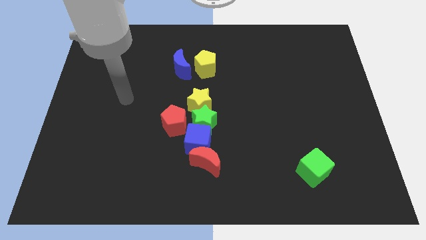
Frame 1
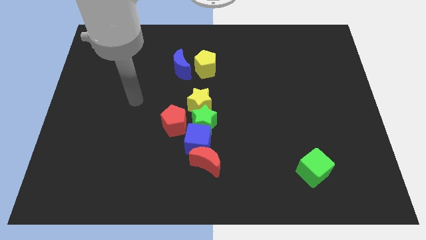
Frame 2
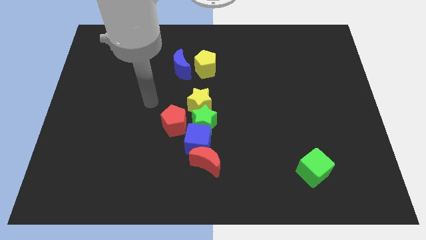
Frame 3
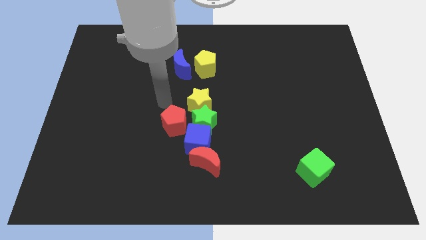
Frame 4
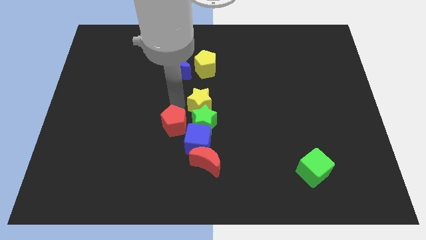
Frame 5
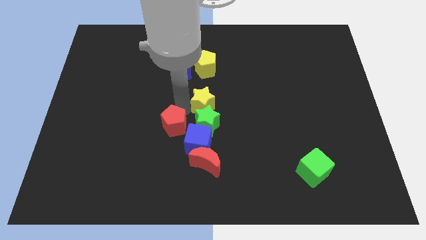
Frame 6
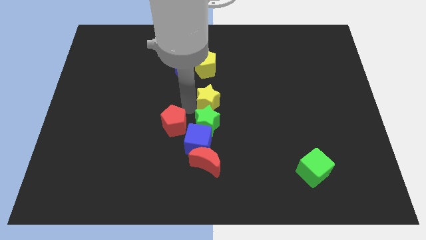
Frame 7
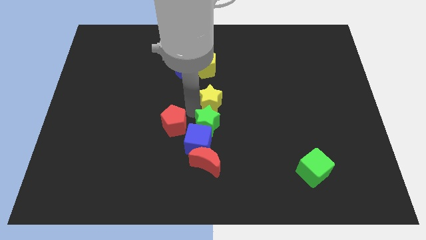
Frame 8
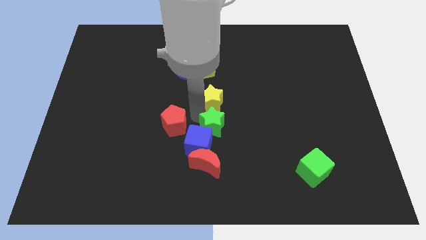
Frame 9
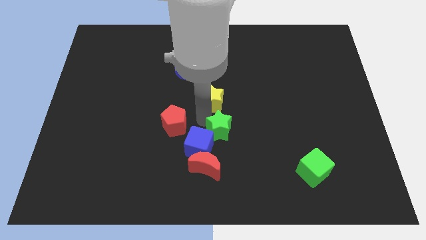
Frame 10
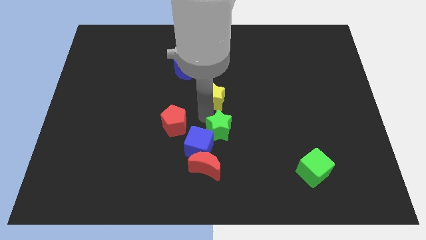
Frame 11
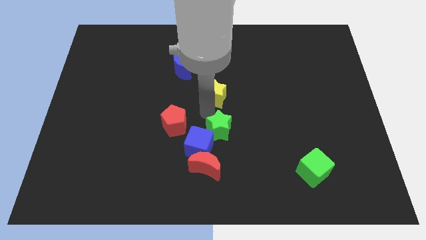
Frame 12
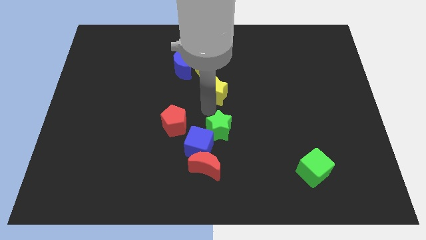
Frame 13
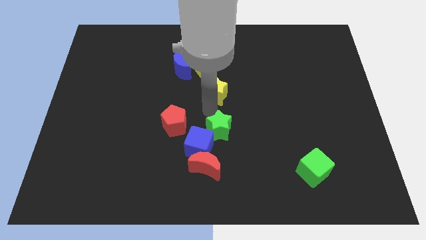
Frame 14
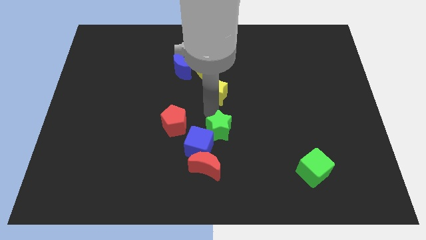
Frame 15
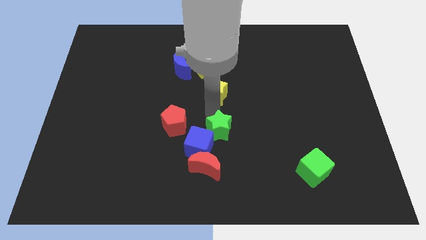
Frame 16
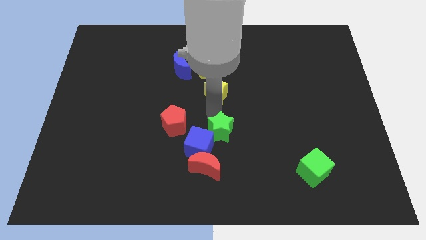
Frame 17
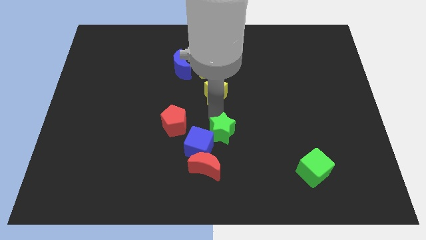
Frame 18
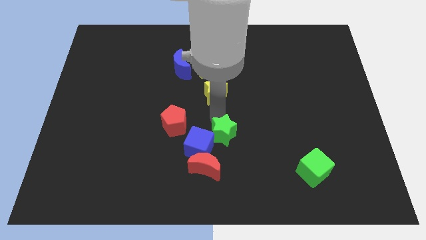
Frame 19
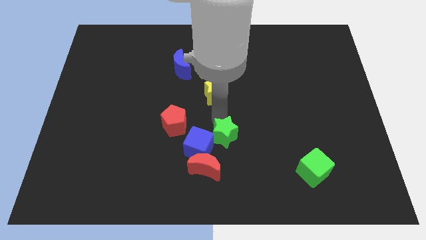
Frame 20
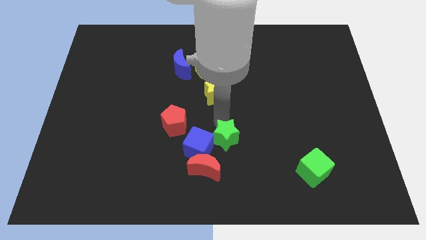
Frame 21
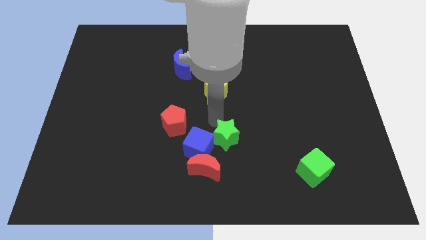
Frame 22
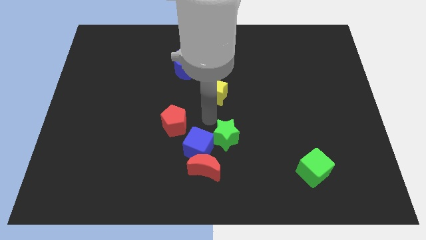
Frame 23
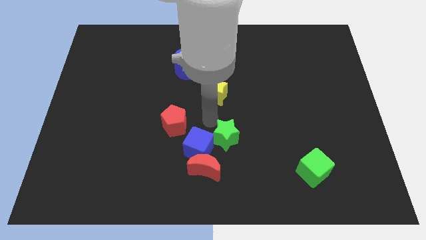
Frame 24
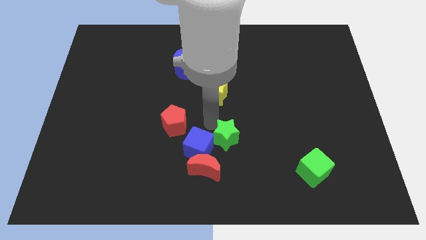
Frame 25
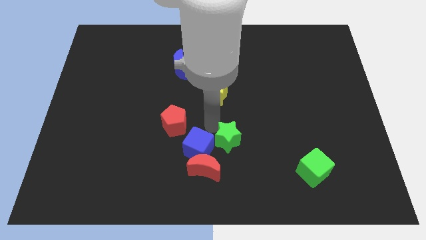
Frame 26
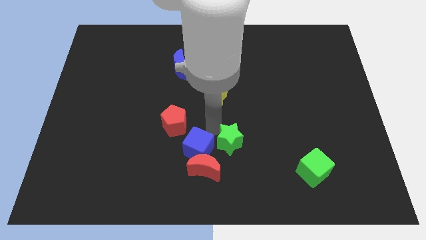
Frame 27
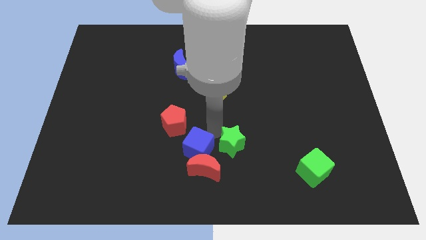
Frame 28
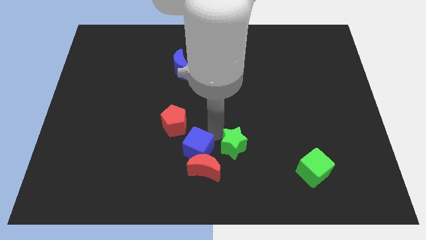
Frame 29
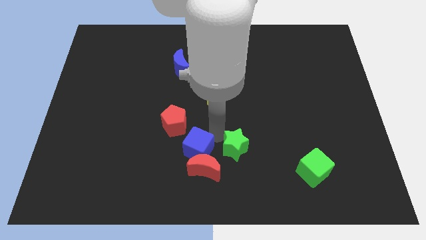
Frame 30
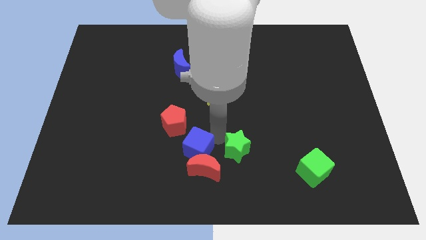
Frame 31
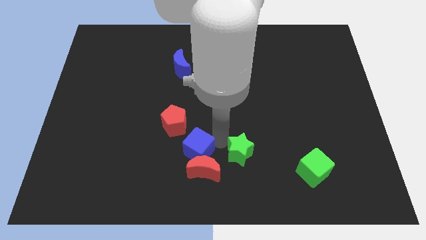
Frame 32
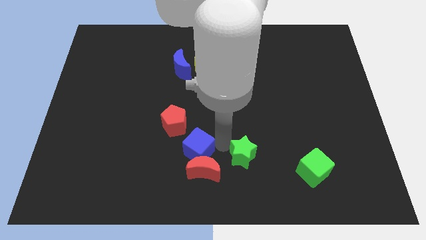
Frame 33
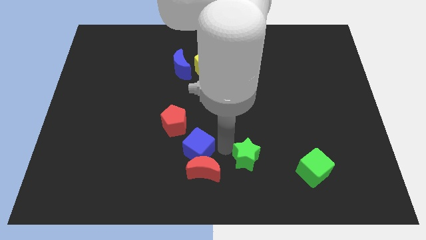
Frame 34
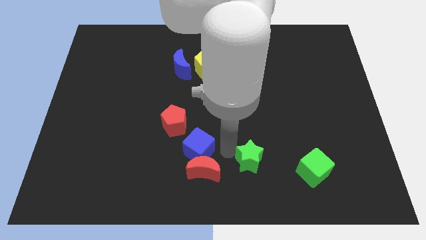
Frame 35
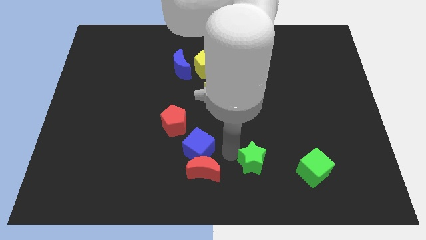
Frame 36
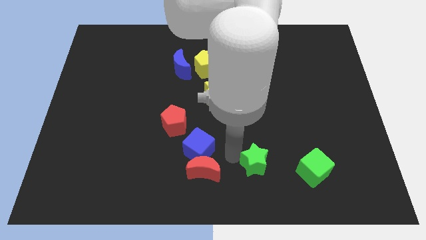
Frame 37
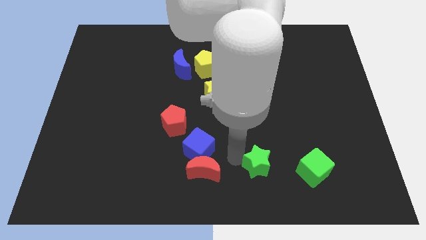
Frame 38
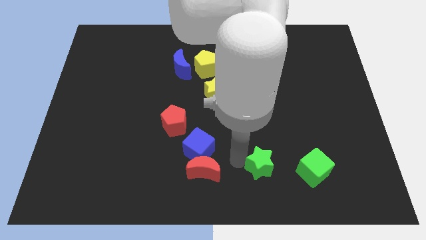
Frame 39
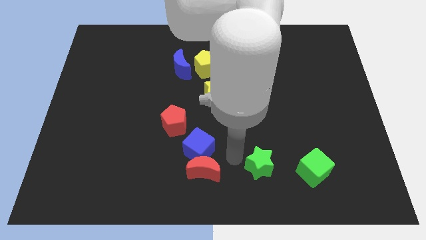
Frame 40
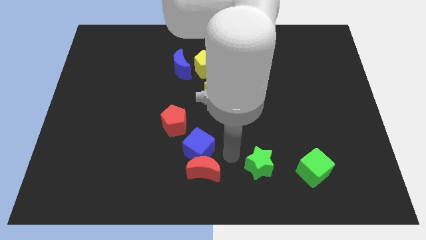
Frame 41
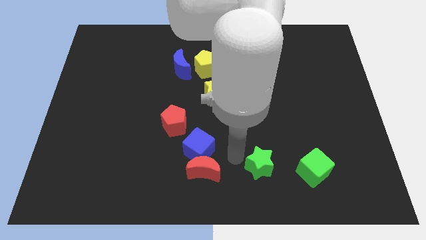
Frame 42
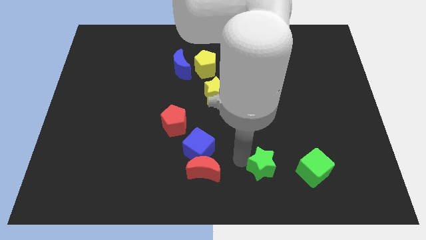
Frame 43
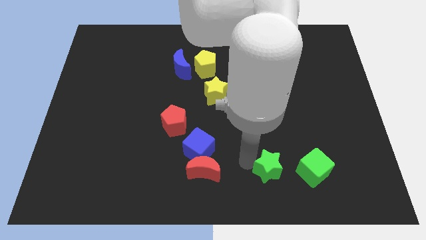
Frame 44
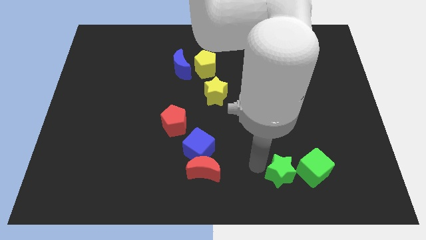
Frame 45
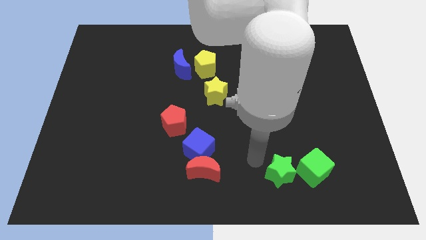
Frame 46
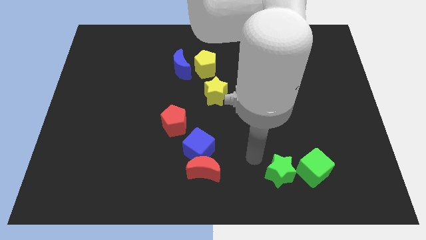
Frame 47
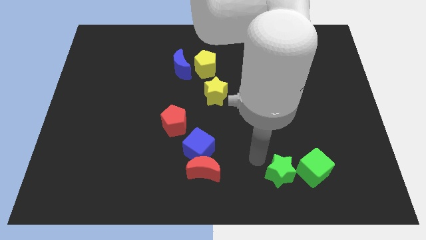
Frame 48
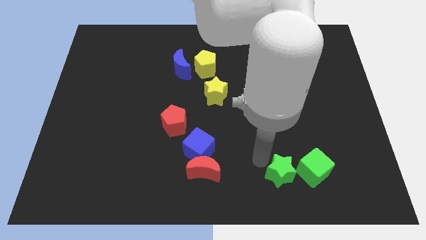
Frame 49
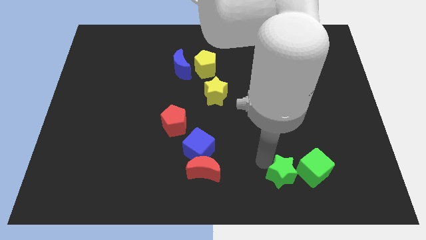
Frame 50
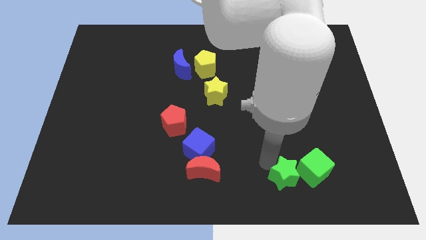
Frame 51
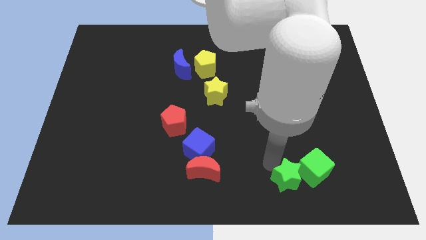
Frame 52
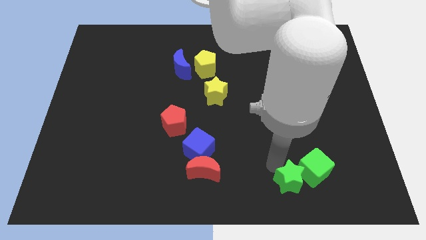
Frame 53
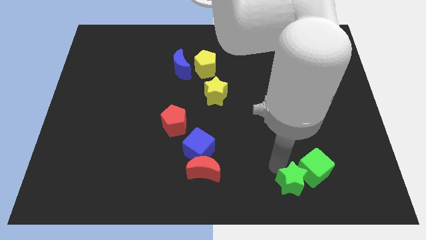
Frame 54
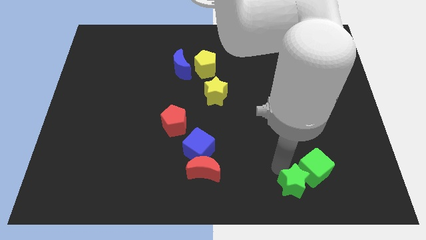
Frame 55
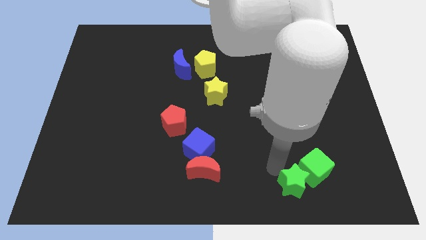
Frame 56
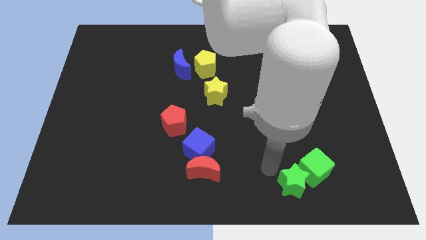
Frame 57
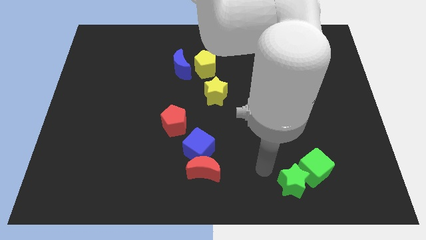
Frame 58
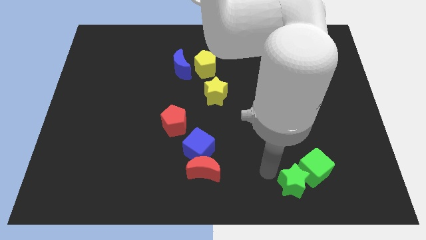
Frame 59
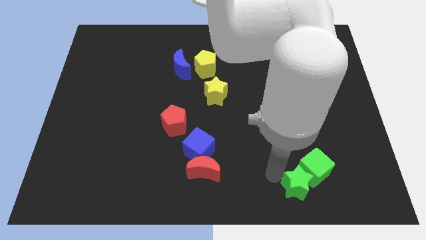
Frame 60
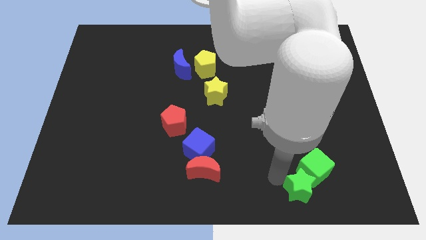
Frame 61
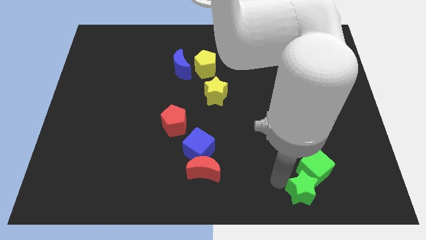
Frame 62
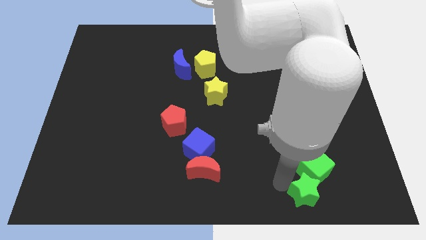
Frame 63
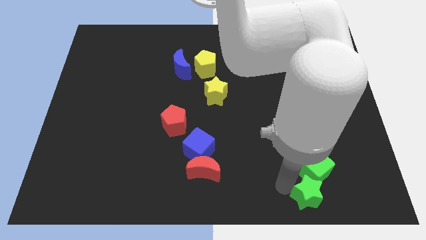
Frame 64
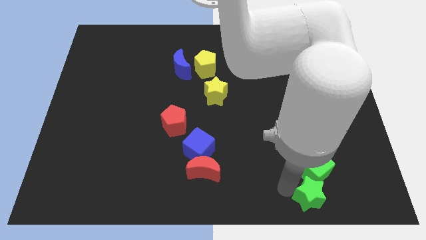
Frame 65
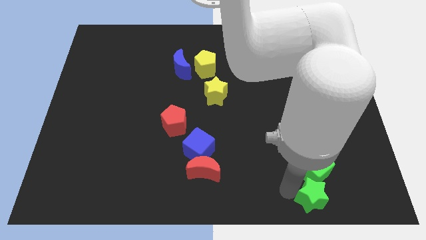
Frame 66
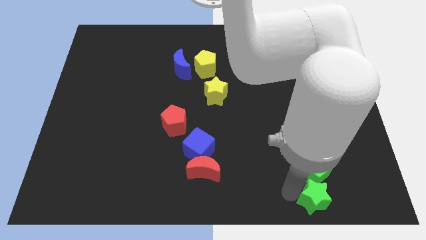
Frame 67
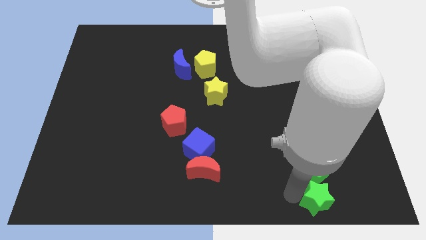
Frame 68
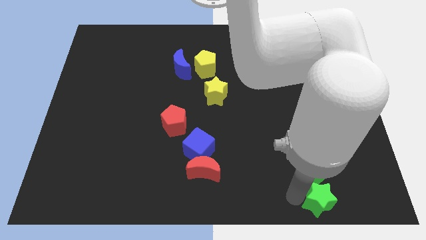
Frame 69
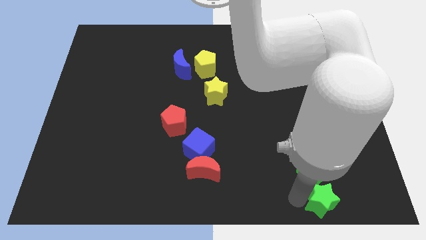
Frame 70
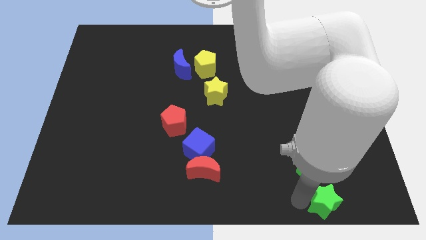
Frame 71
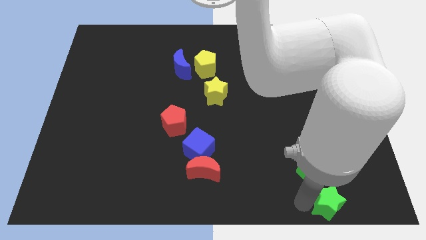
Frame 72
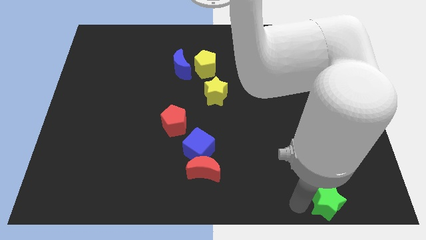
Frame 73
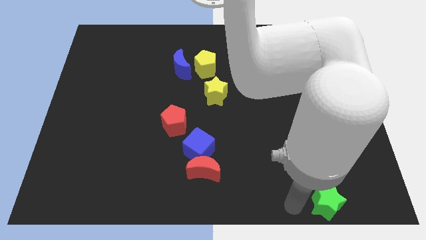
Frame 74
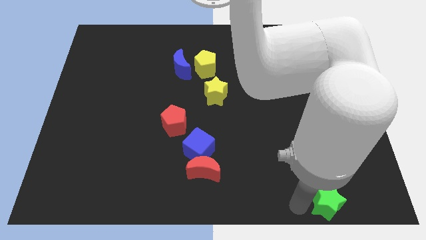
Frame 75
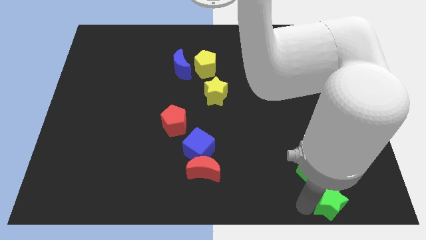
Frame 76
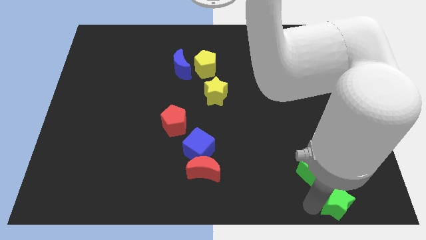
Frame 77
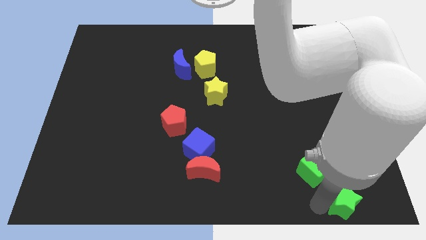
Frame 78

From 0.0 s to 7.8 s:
put the green star to the bottom right corner
